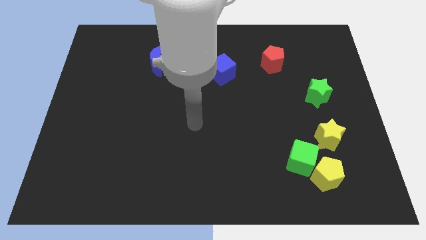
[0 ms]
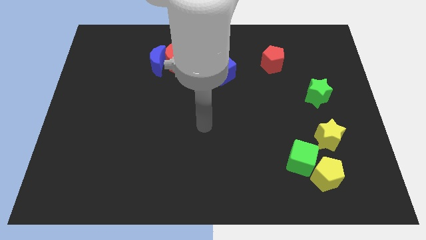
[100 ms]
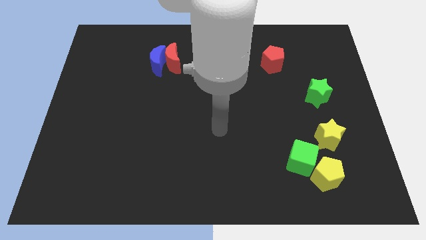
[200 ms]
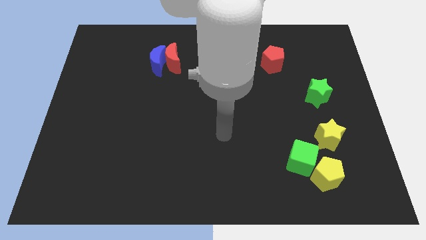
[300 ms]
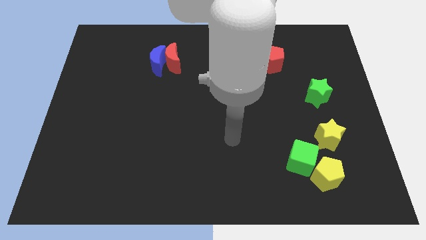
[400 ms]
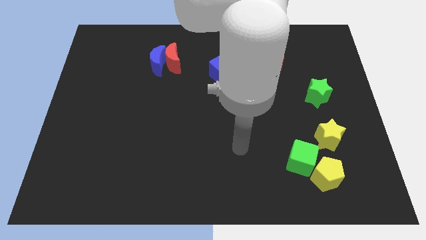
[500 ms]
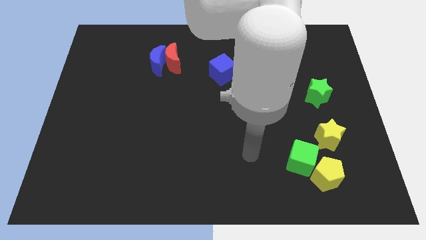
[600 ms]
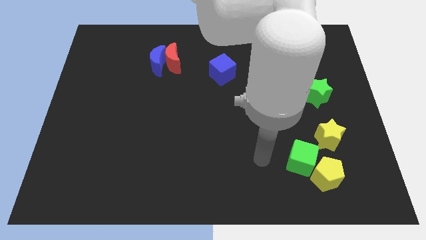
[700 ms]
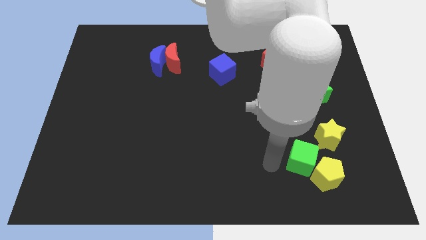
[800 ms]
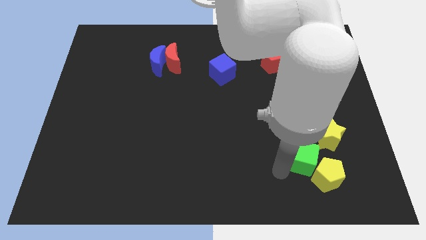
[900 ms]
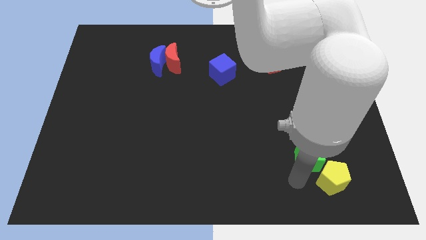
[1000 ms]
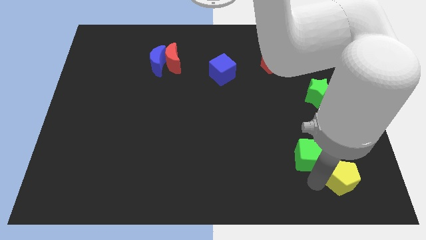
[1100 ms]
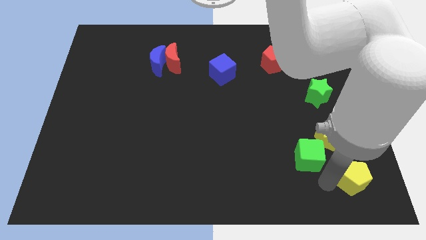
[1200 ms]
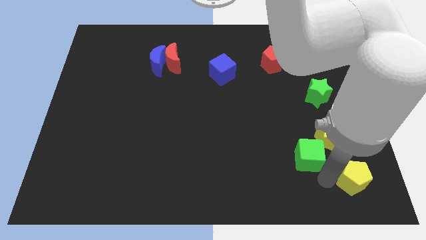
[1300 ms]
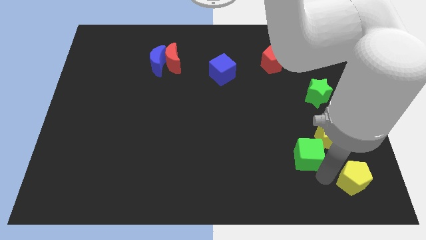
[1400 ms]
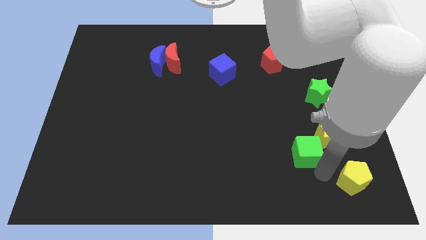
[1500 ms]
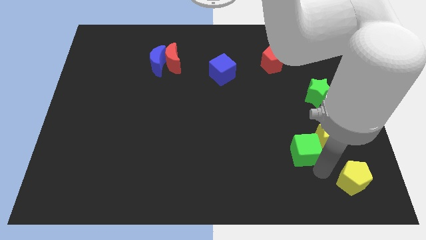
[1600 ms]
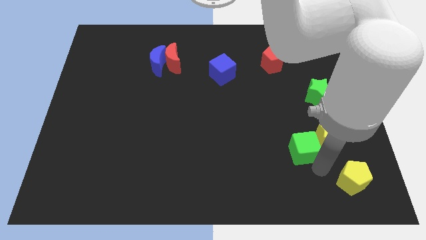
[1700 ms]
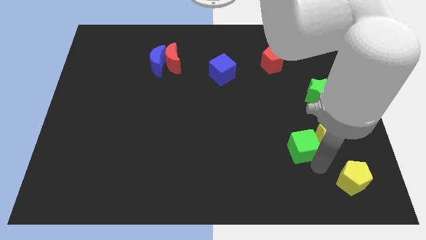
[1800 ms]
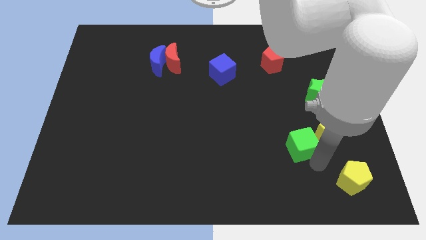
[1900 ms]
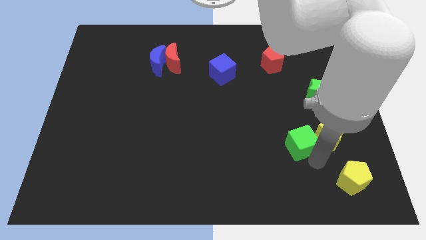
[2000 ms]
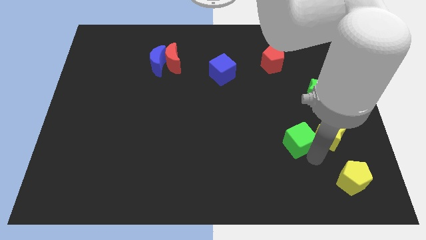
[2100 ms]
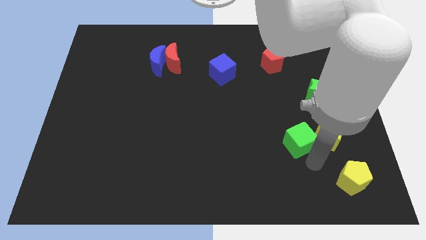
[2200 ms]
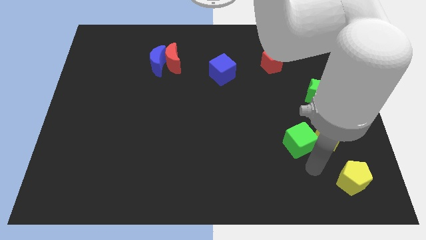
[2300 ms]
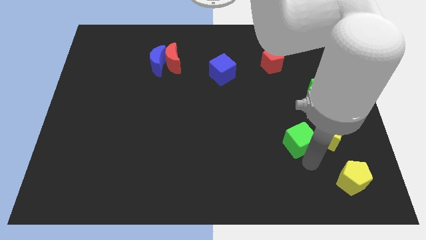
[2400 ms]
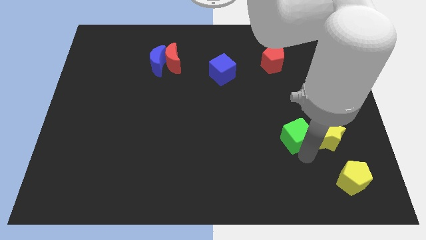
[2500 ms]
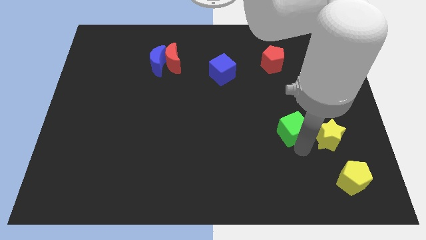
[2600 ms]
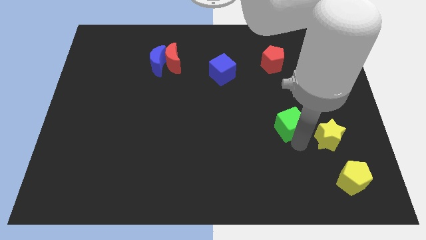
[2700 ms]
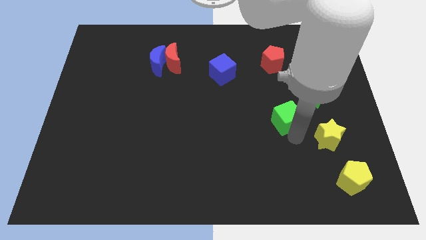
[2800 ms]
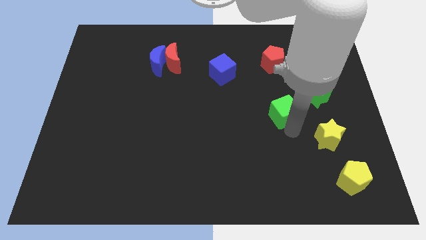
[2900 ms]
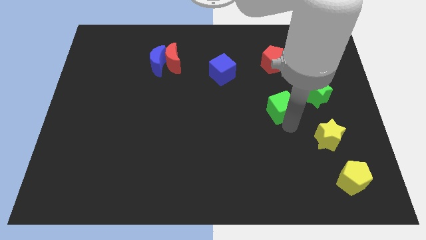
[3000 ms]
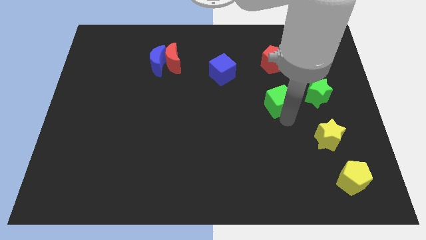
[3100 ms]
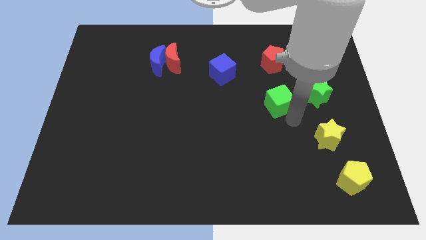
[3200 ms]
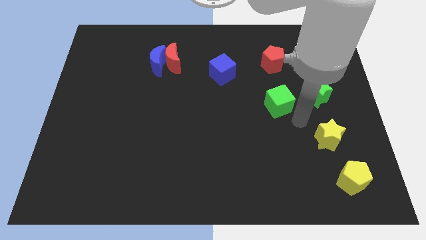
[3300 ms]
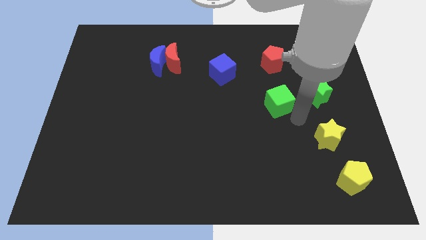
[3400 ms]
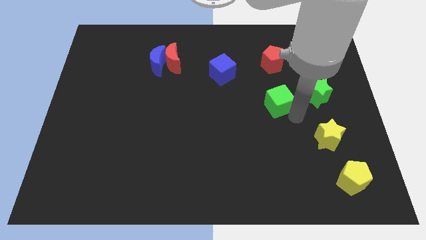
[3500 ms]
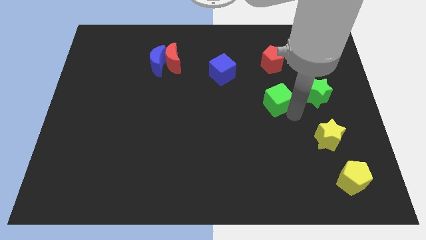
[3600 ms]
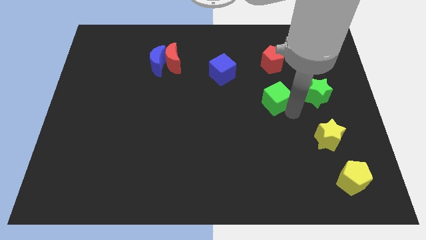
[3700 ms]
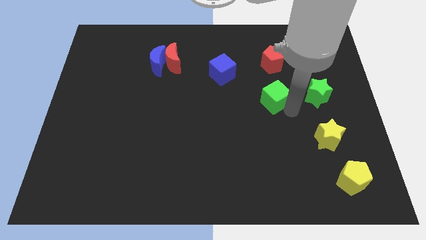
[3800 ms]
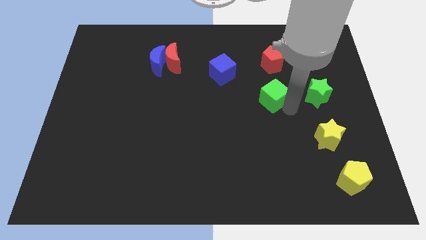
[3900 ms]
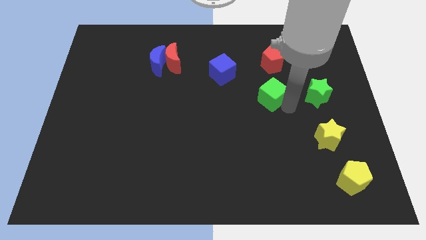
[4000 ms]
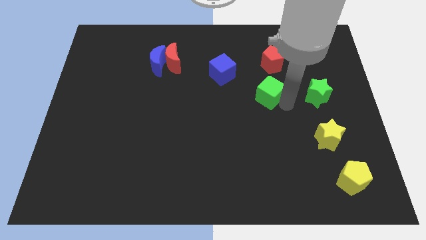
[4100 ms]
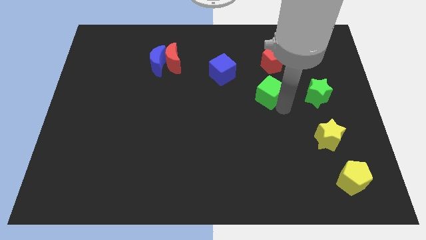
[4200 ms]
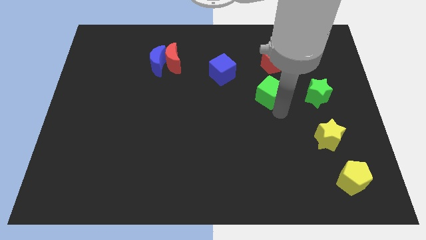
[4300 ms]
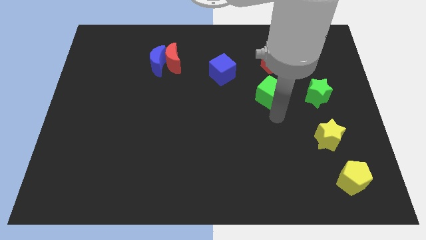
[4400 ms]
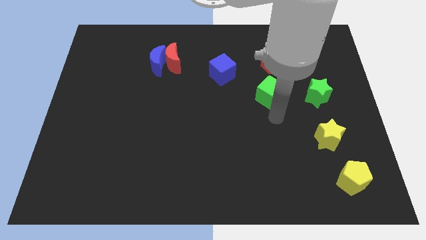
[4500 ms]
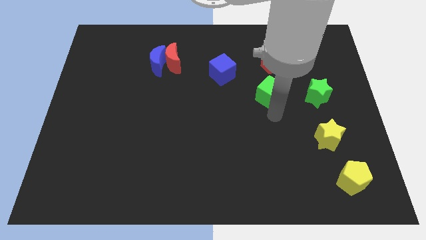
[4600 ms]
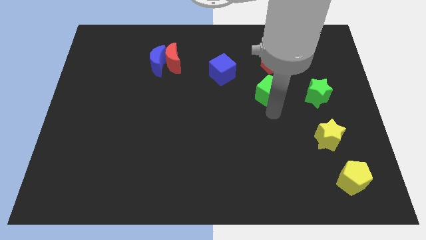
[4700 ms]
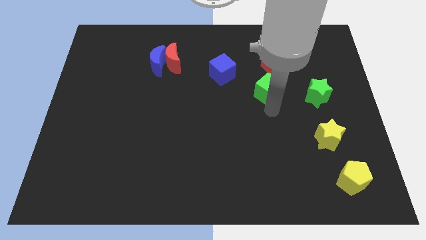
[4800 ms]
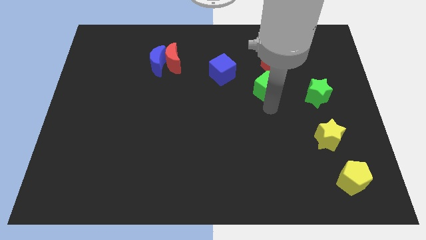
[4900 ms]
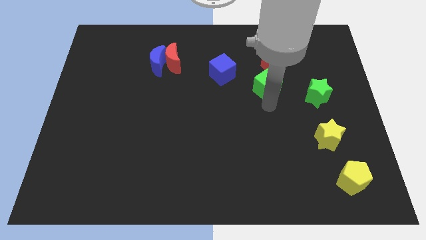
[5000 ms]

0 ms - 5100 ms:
slide the green cube to the right side of the blue cube

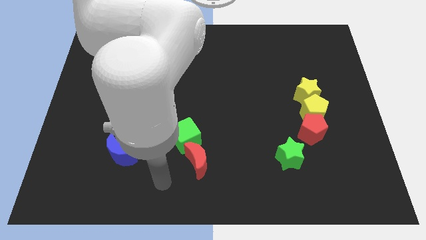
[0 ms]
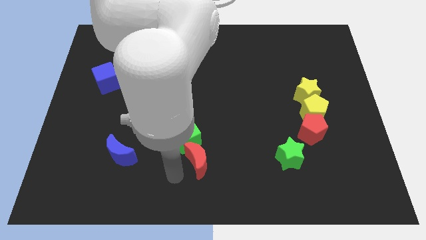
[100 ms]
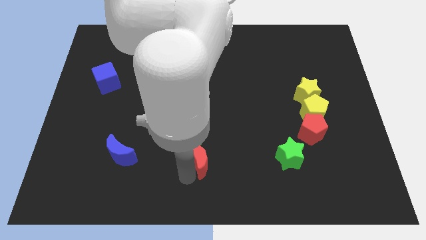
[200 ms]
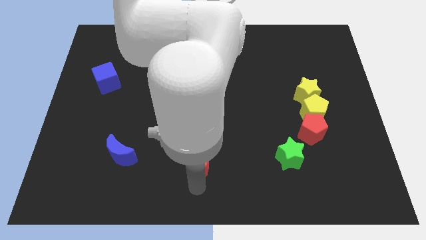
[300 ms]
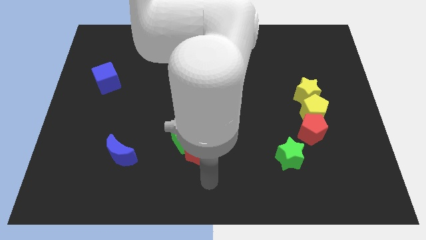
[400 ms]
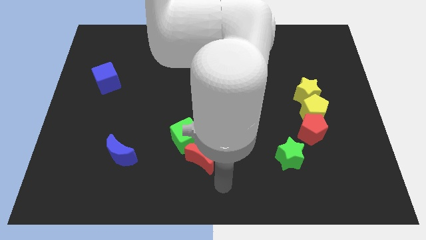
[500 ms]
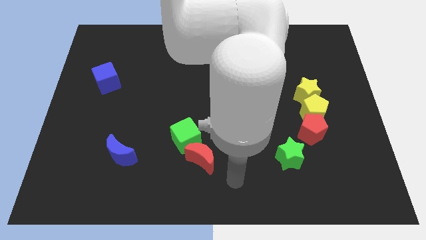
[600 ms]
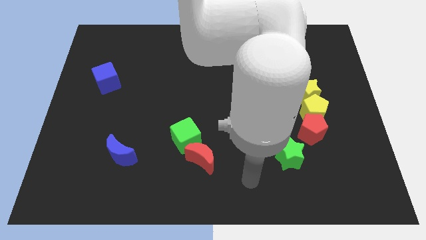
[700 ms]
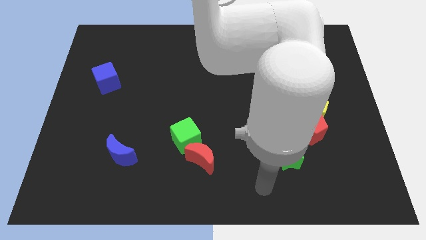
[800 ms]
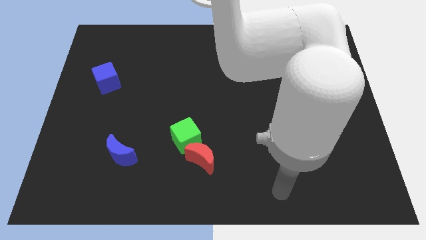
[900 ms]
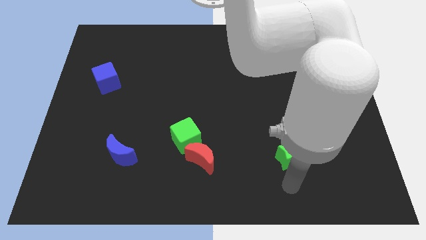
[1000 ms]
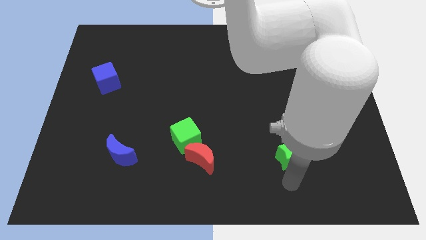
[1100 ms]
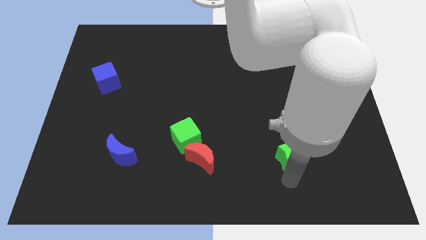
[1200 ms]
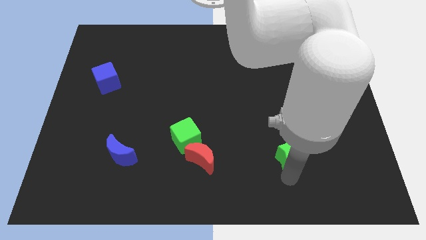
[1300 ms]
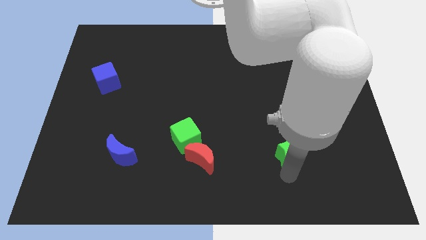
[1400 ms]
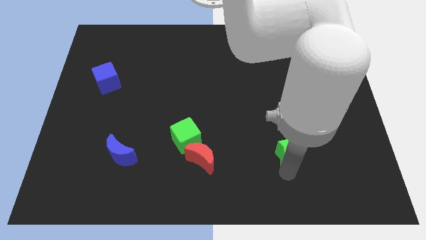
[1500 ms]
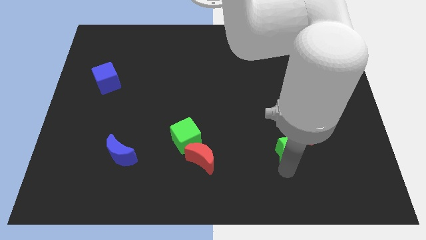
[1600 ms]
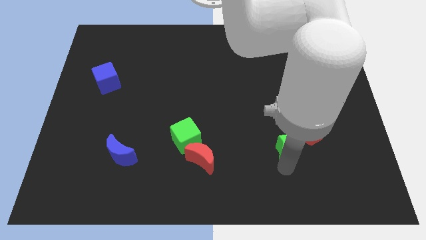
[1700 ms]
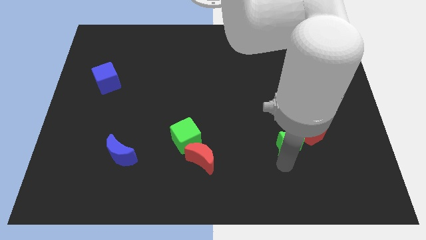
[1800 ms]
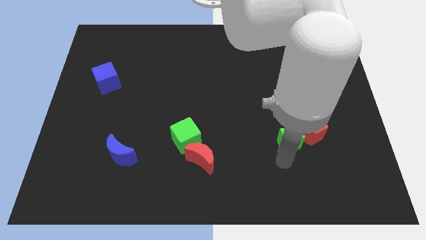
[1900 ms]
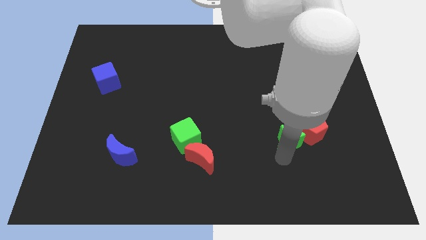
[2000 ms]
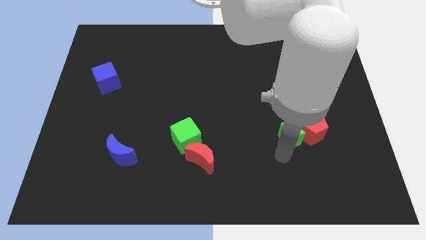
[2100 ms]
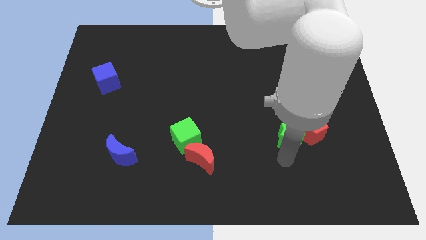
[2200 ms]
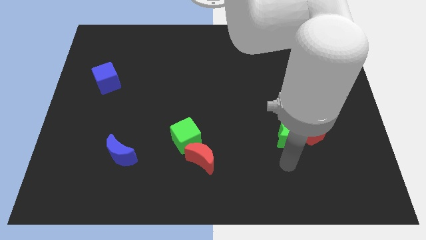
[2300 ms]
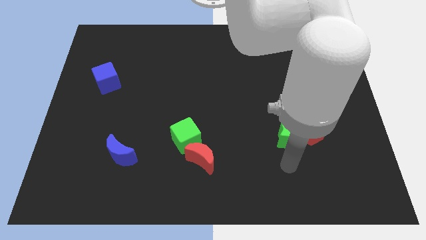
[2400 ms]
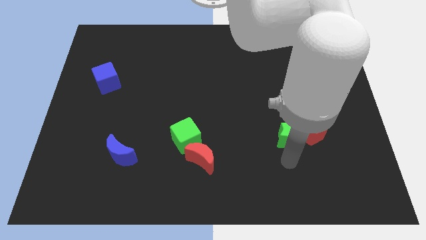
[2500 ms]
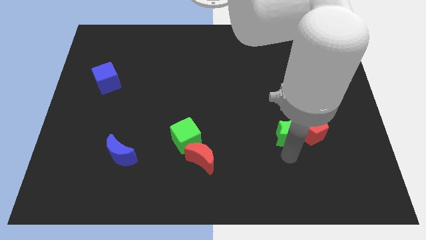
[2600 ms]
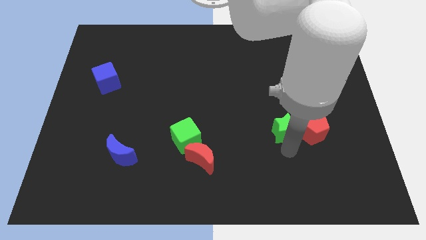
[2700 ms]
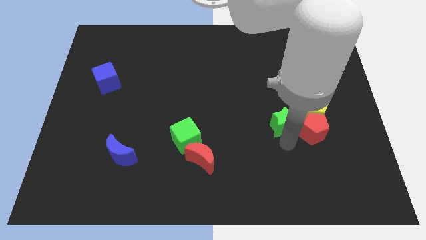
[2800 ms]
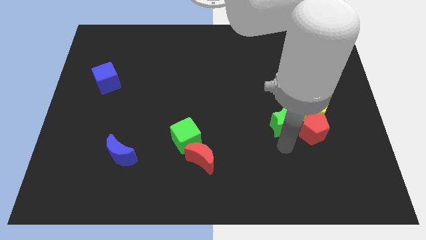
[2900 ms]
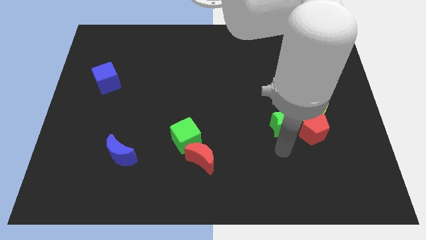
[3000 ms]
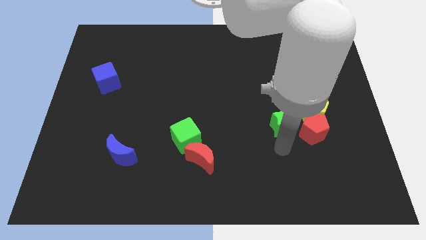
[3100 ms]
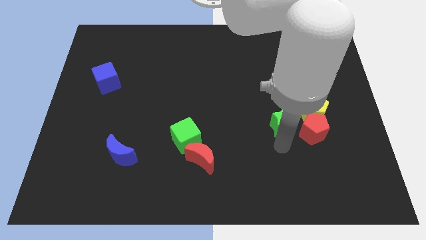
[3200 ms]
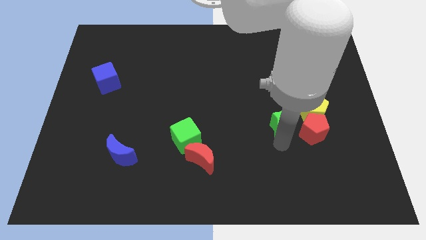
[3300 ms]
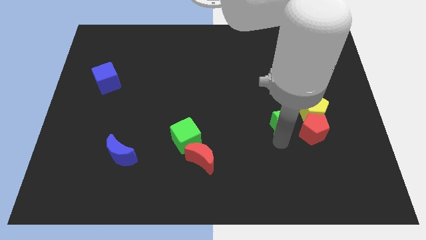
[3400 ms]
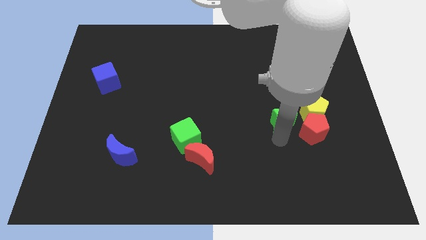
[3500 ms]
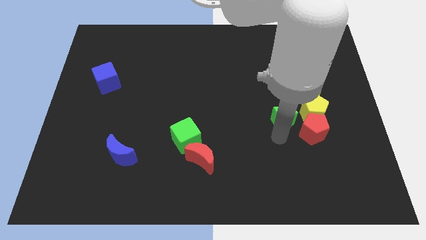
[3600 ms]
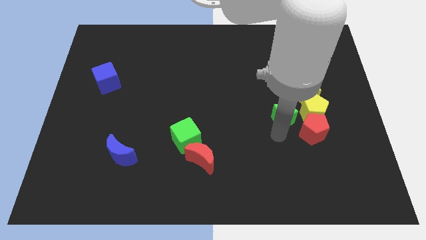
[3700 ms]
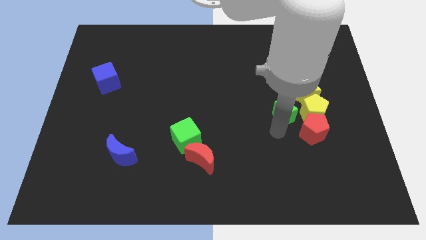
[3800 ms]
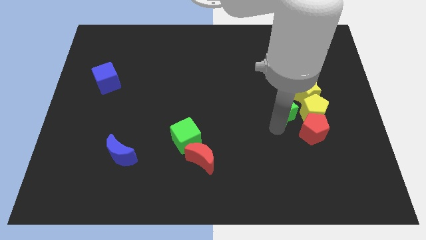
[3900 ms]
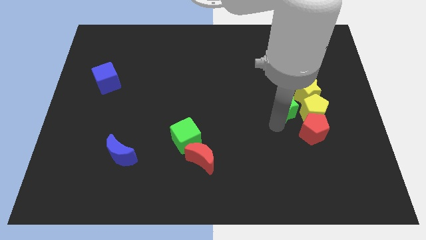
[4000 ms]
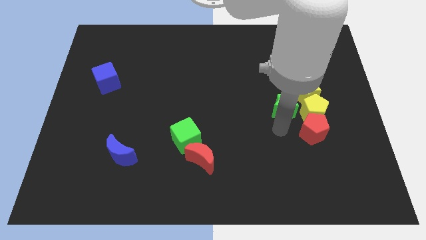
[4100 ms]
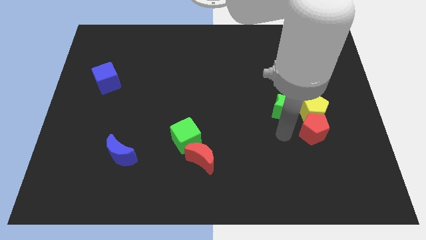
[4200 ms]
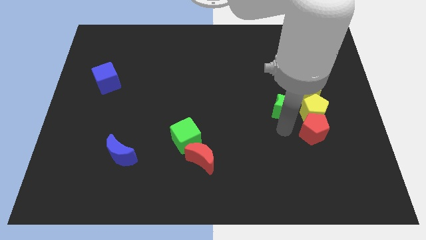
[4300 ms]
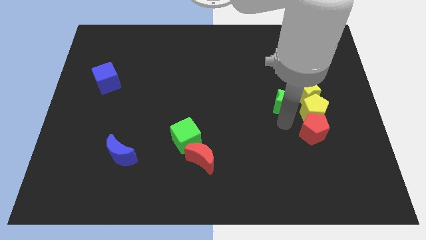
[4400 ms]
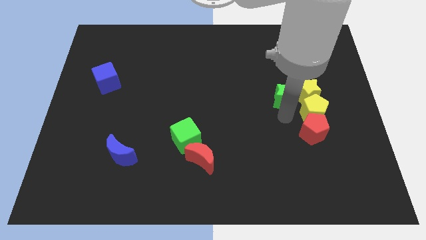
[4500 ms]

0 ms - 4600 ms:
push the green star to the top side of the red pentagon
